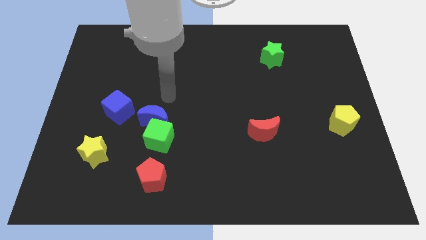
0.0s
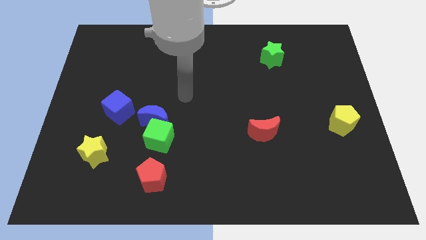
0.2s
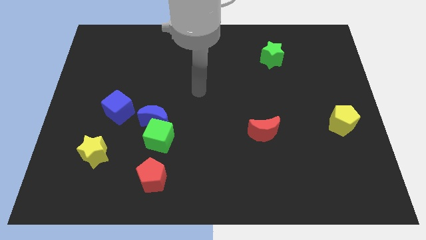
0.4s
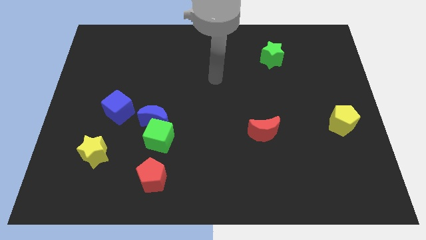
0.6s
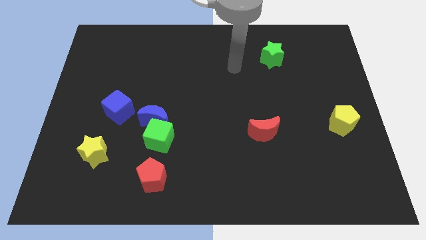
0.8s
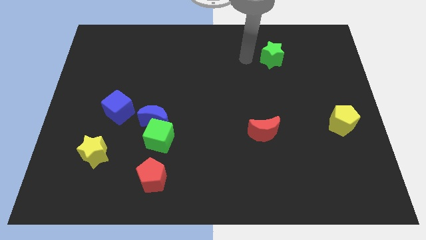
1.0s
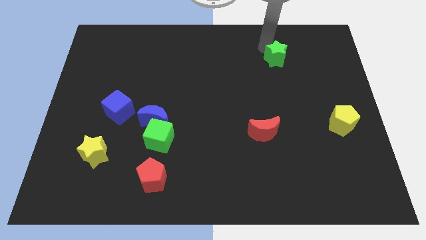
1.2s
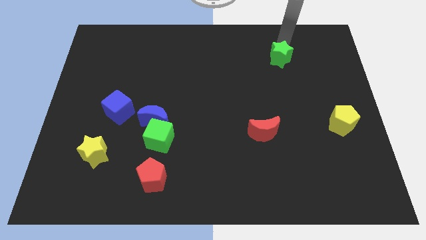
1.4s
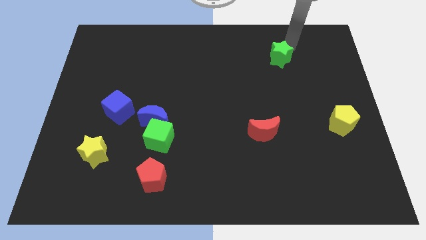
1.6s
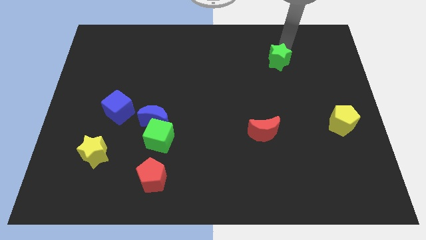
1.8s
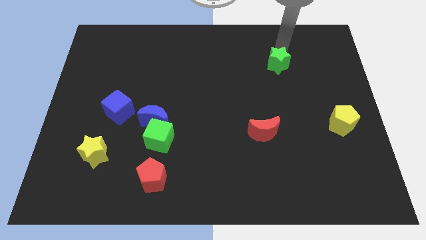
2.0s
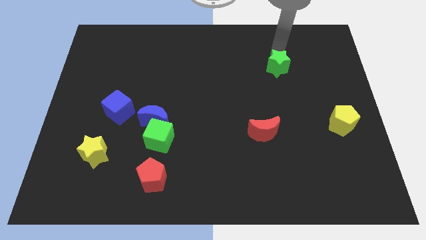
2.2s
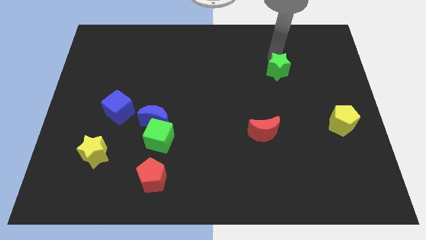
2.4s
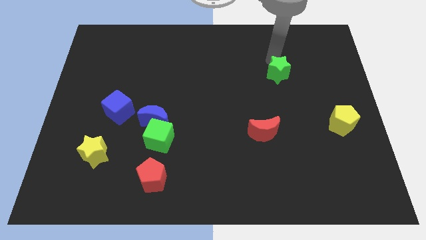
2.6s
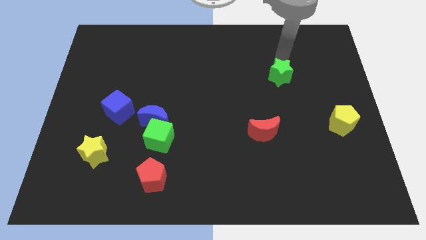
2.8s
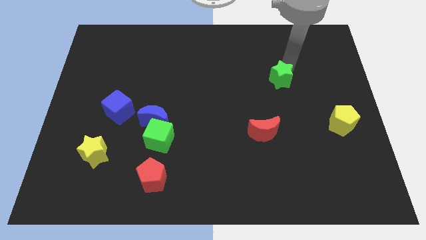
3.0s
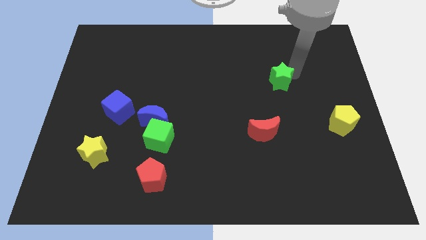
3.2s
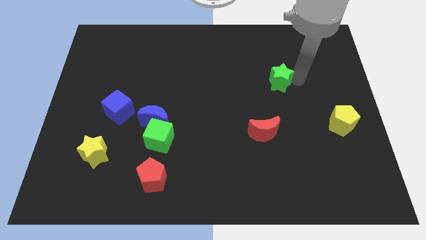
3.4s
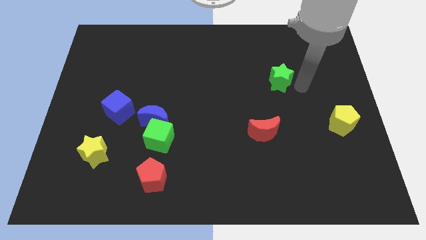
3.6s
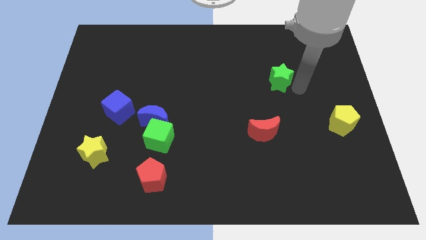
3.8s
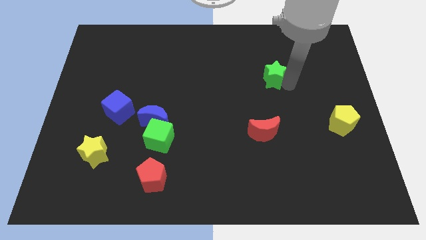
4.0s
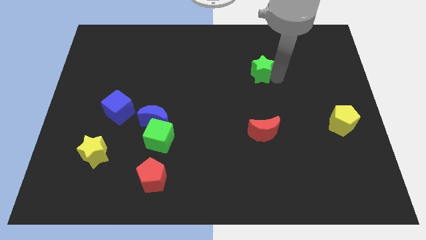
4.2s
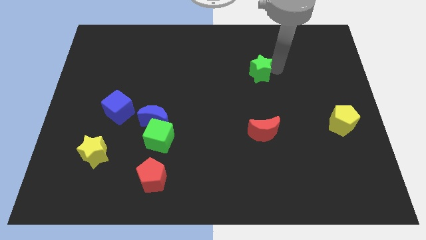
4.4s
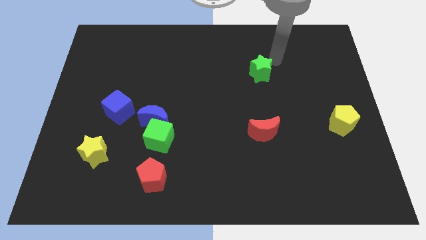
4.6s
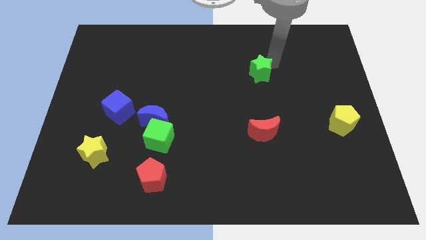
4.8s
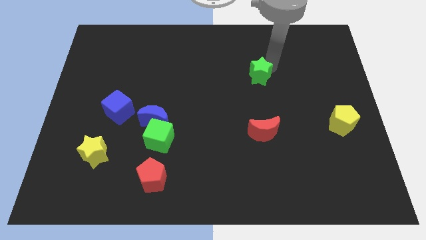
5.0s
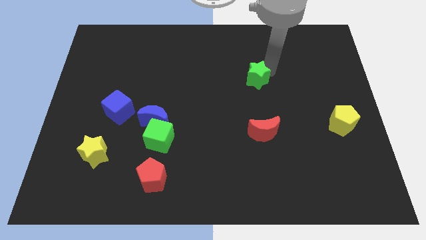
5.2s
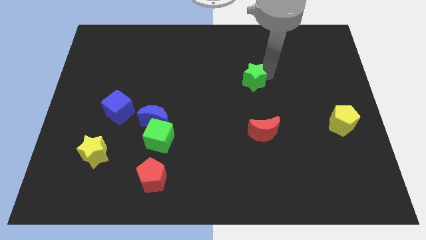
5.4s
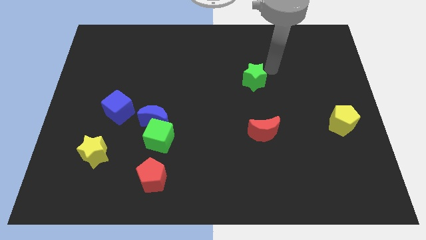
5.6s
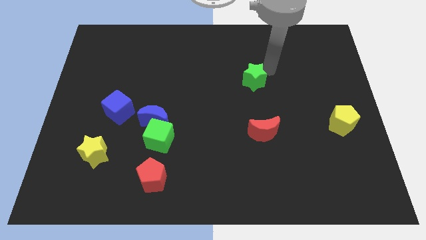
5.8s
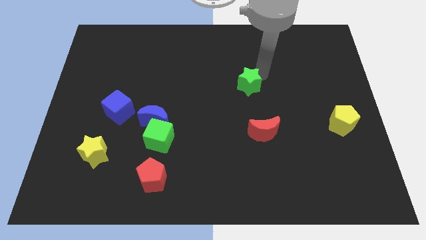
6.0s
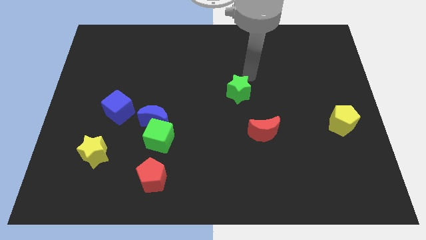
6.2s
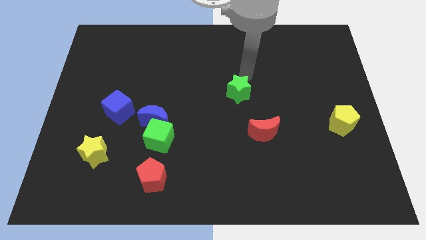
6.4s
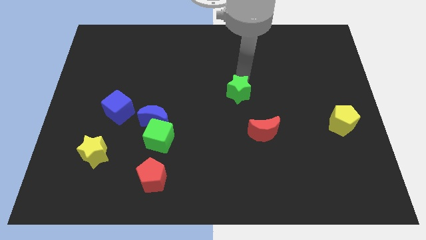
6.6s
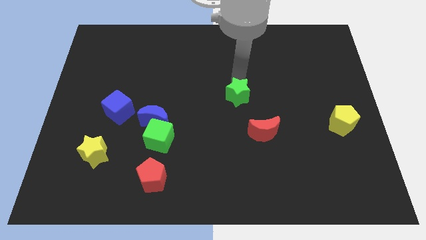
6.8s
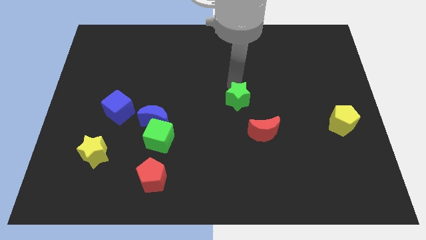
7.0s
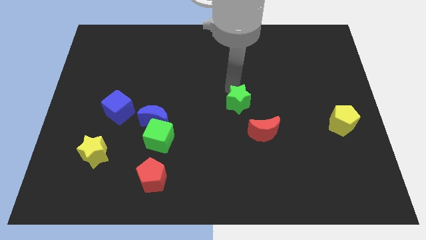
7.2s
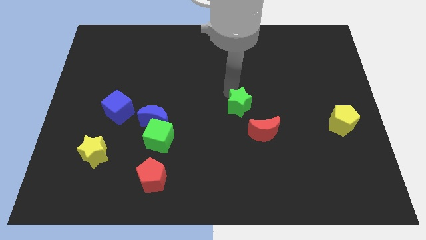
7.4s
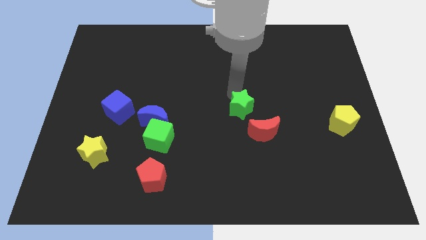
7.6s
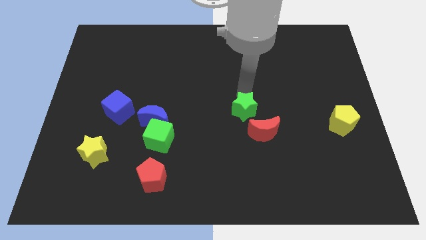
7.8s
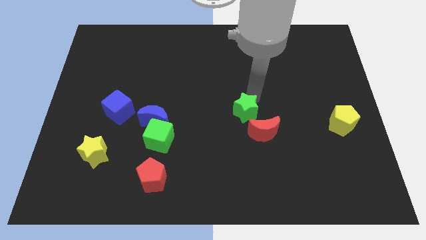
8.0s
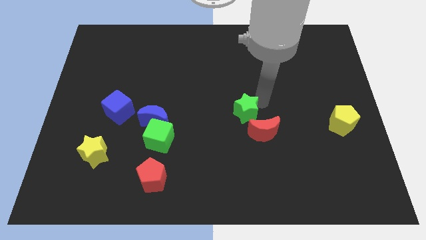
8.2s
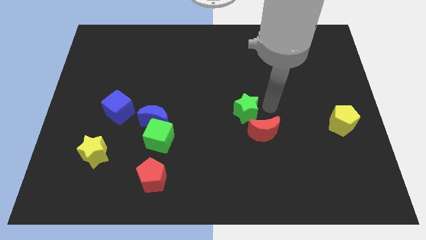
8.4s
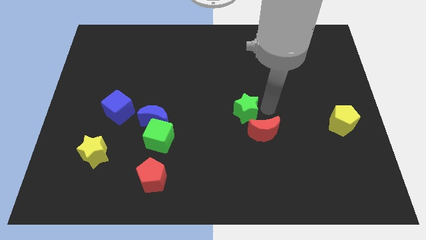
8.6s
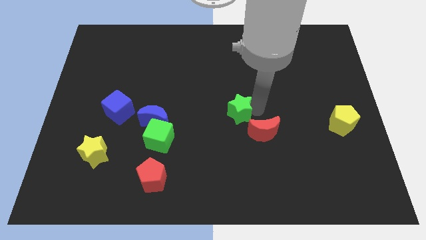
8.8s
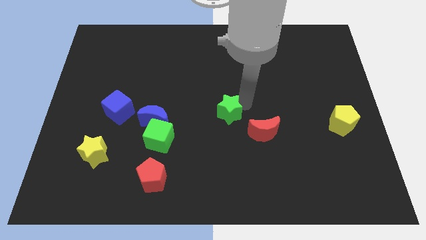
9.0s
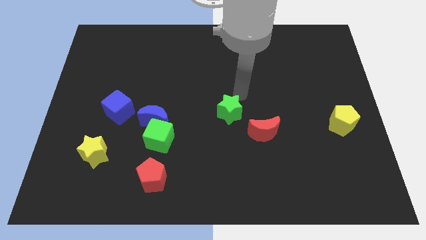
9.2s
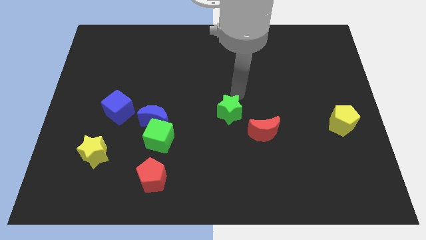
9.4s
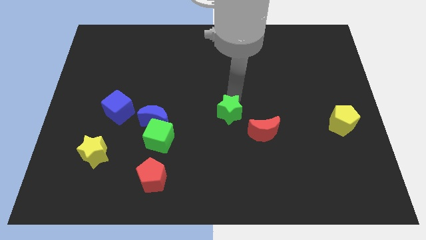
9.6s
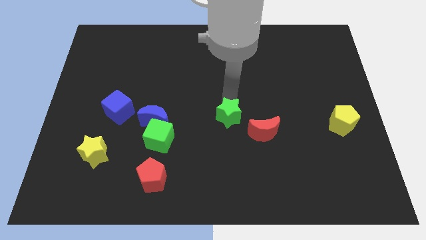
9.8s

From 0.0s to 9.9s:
move the green star to the left of the red moon

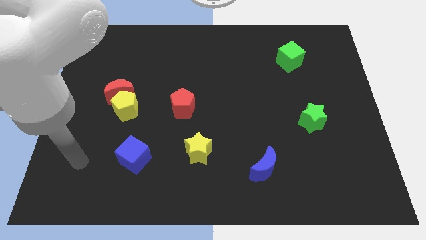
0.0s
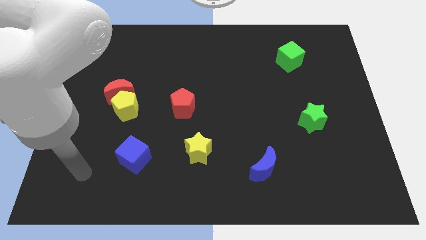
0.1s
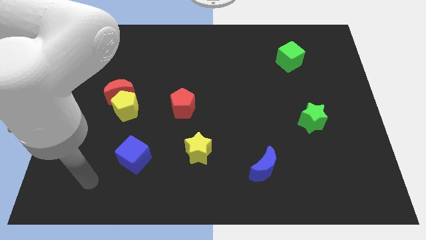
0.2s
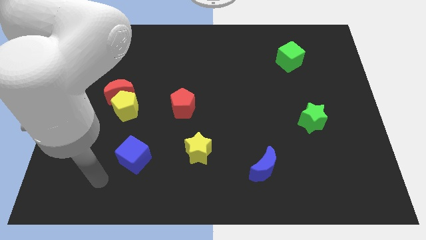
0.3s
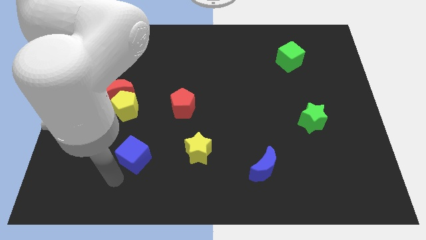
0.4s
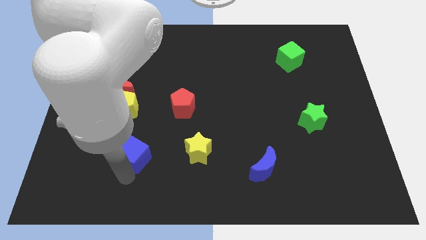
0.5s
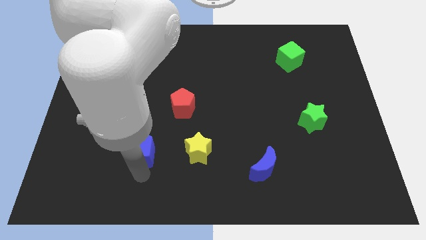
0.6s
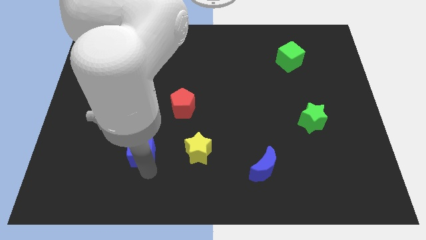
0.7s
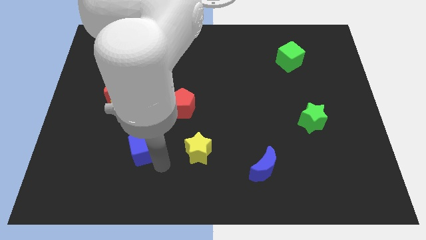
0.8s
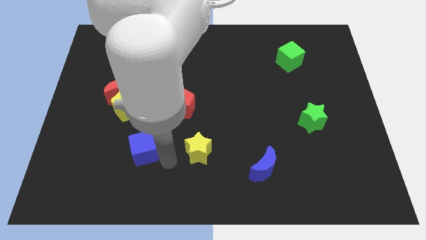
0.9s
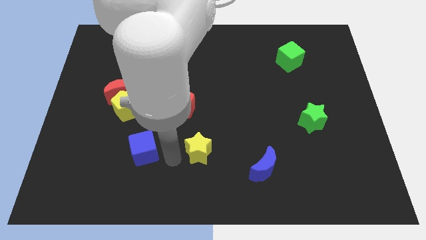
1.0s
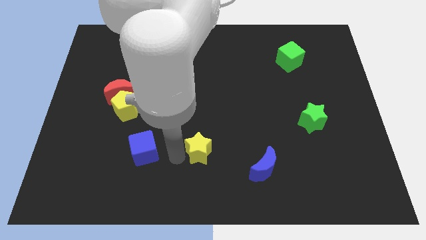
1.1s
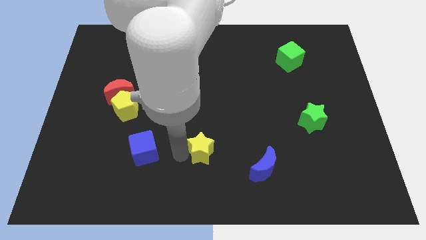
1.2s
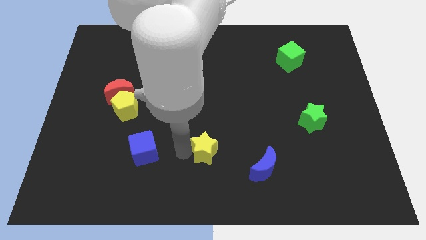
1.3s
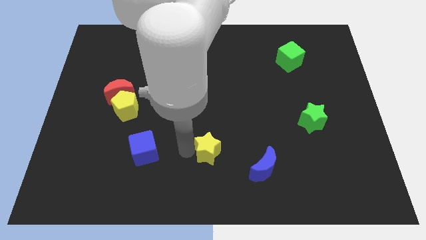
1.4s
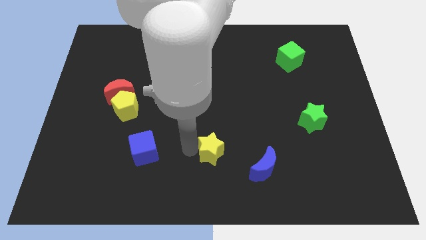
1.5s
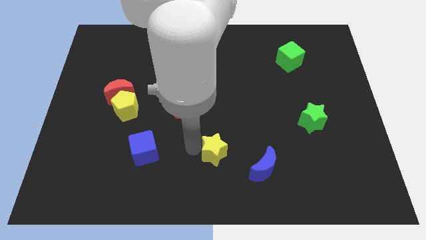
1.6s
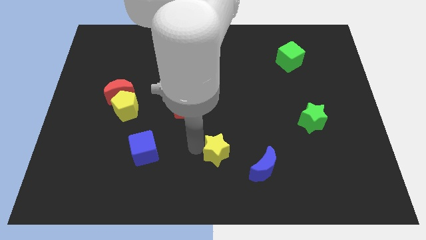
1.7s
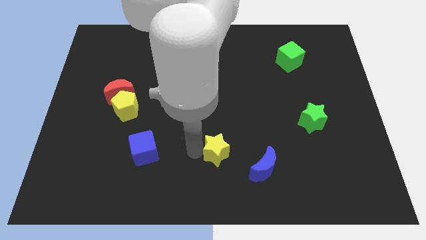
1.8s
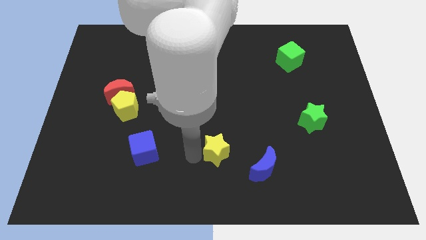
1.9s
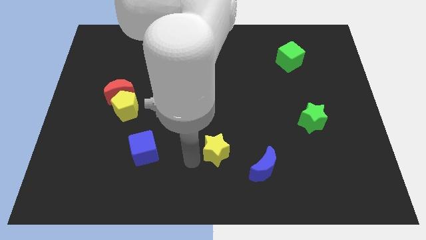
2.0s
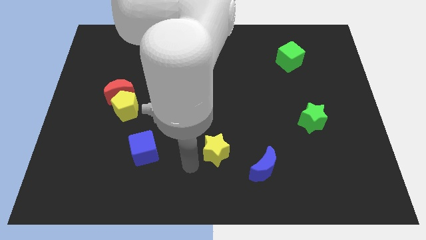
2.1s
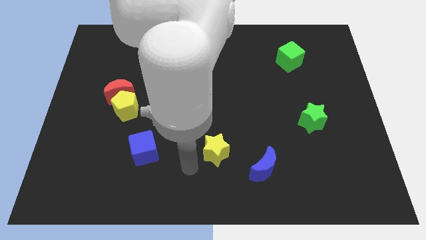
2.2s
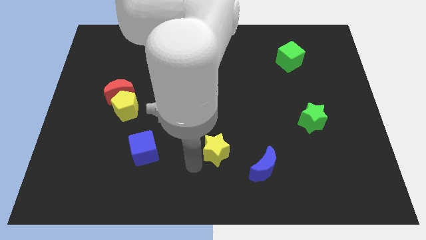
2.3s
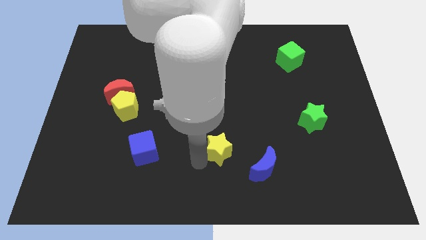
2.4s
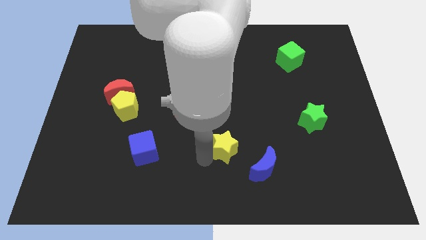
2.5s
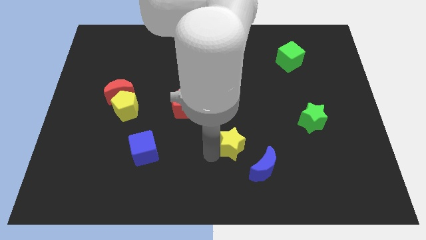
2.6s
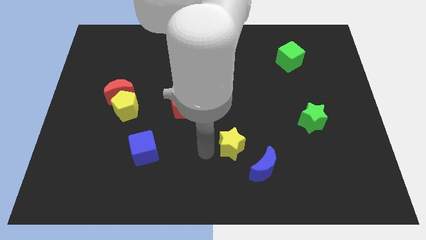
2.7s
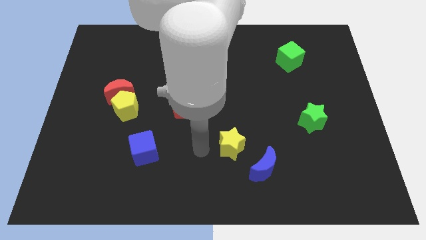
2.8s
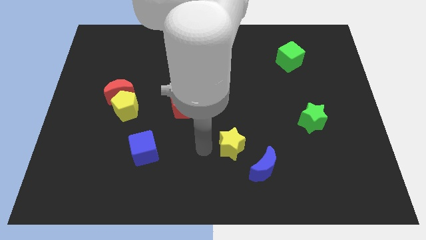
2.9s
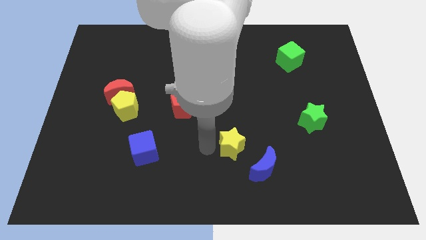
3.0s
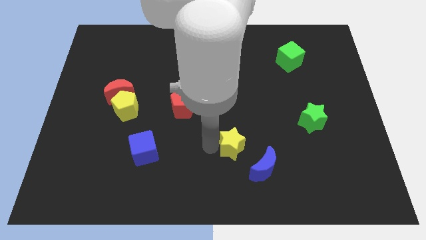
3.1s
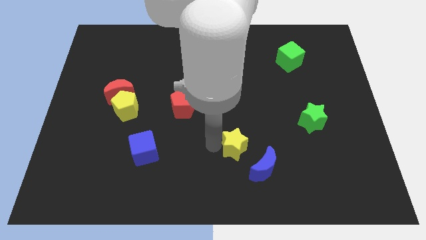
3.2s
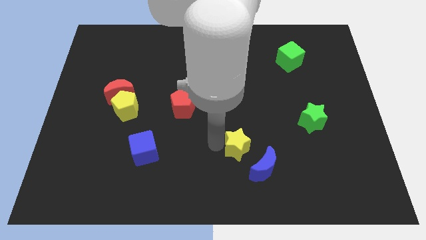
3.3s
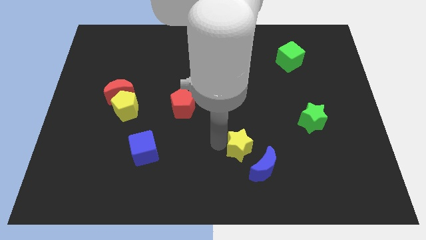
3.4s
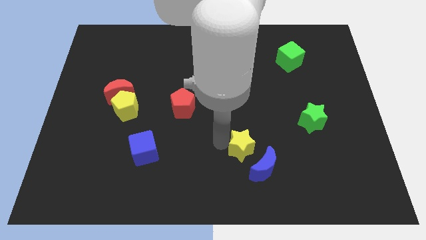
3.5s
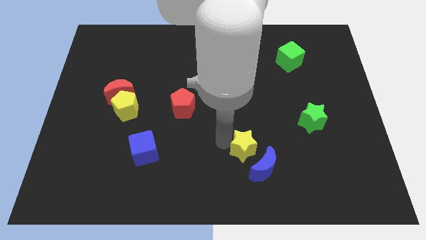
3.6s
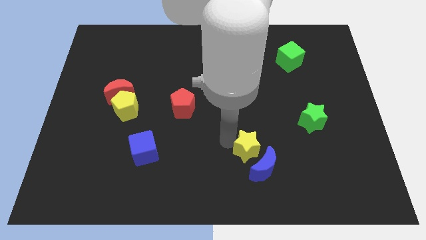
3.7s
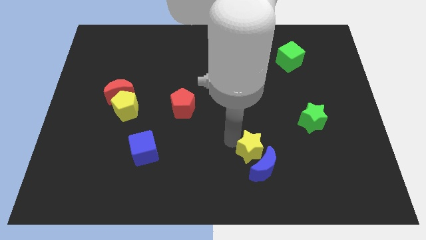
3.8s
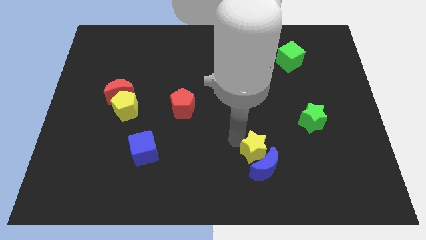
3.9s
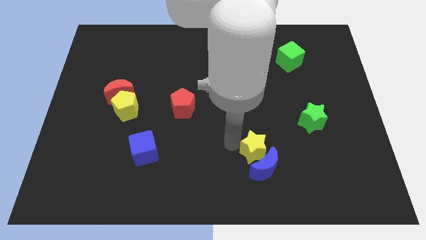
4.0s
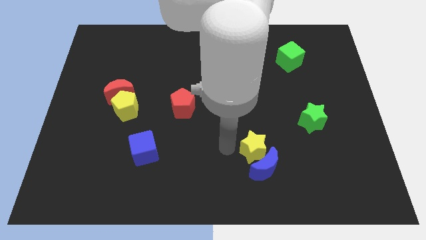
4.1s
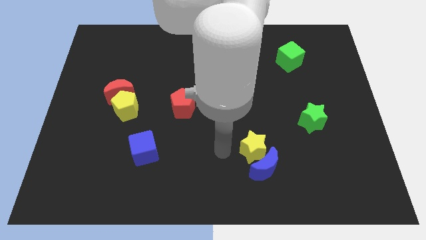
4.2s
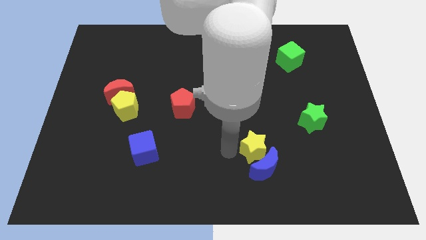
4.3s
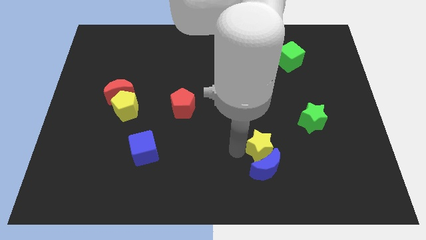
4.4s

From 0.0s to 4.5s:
slide the yellow star to the top right of the blue moon
